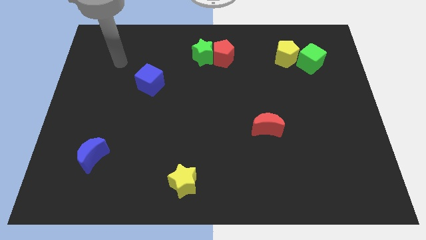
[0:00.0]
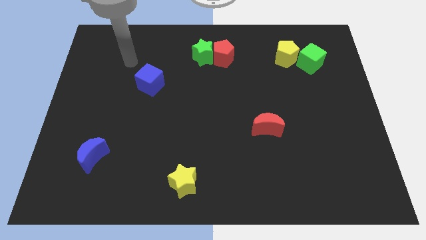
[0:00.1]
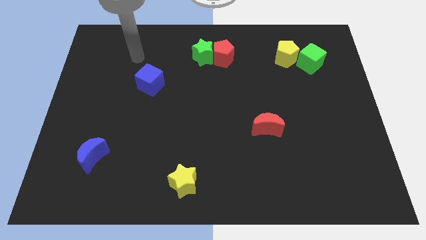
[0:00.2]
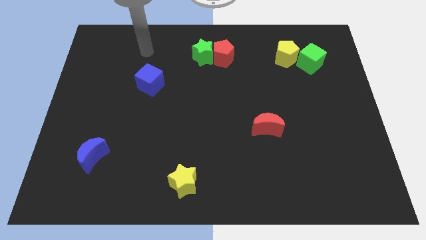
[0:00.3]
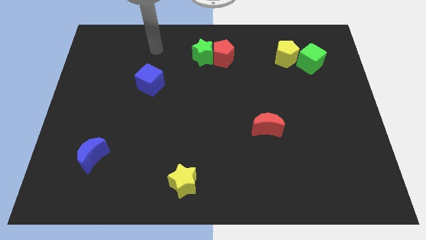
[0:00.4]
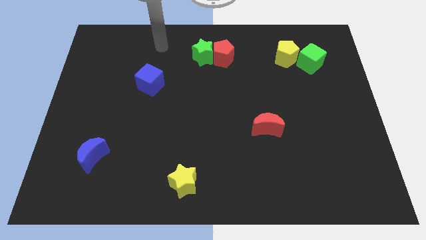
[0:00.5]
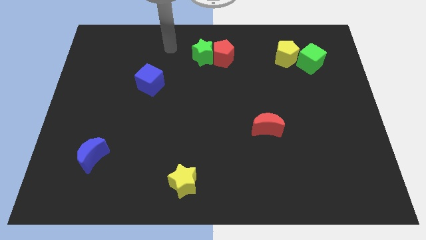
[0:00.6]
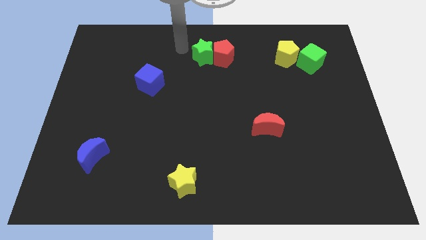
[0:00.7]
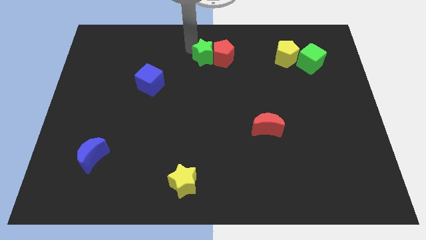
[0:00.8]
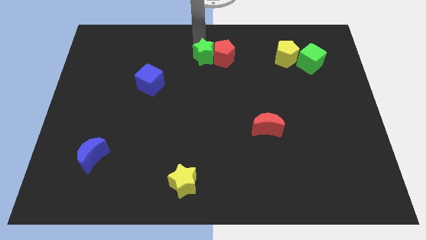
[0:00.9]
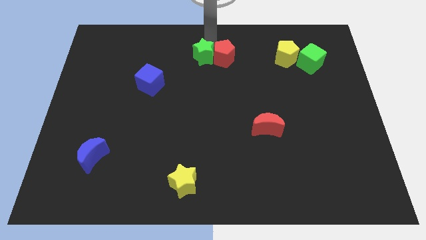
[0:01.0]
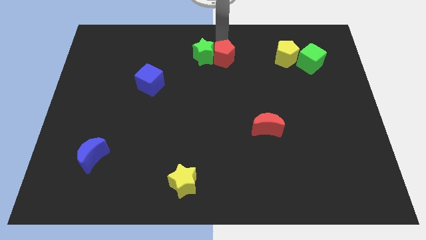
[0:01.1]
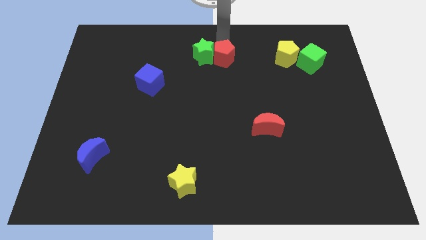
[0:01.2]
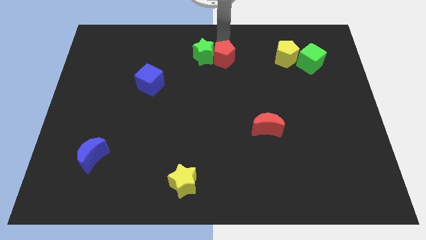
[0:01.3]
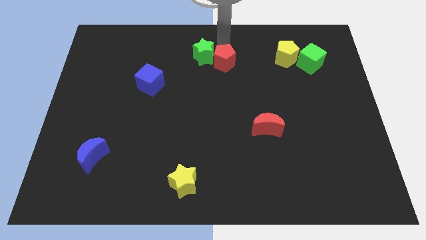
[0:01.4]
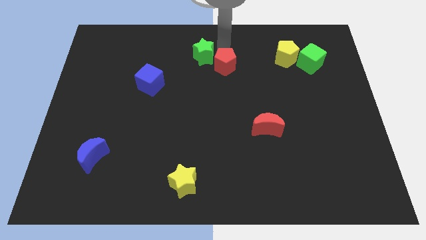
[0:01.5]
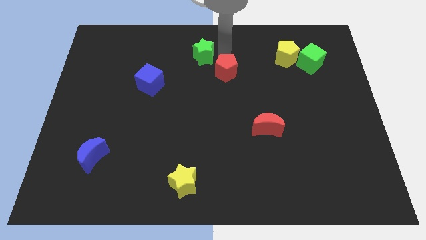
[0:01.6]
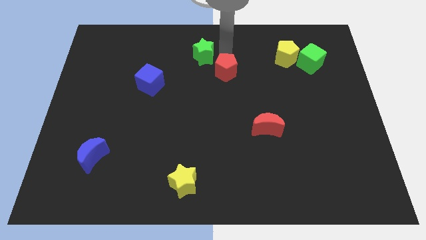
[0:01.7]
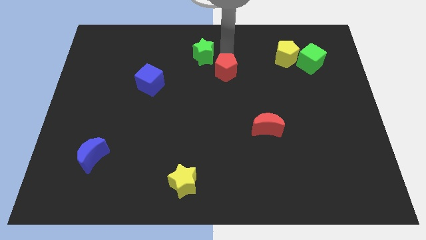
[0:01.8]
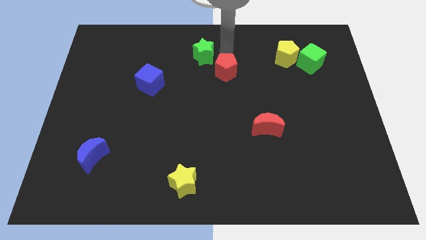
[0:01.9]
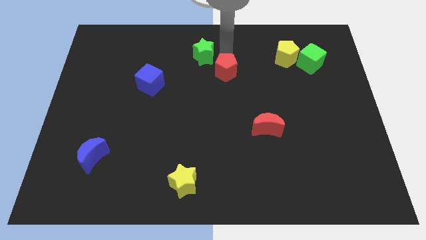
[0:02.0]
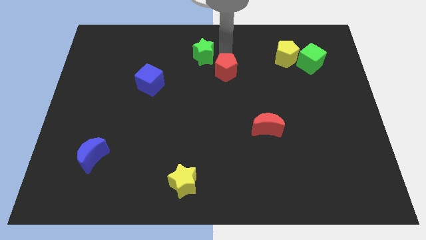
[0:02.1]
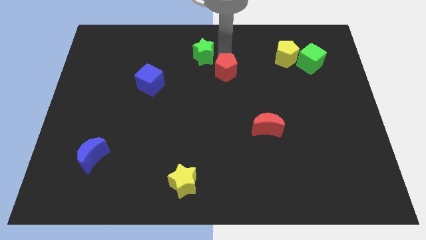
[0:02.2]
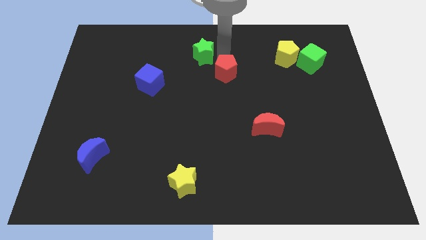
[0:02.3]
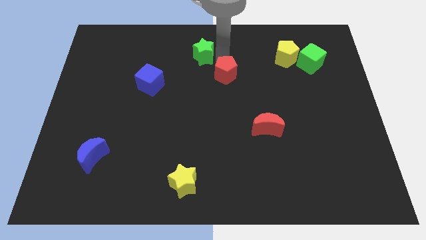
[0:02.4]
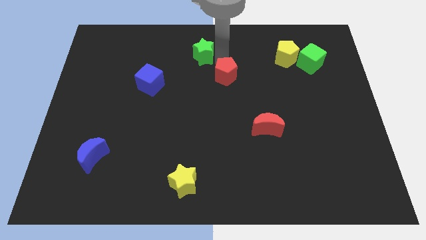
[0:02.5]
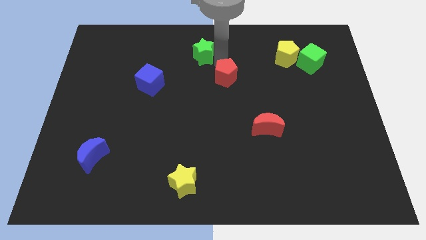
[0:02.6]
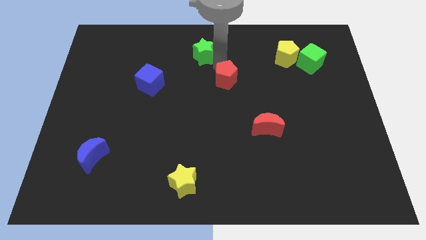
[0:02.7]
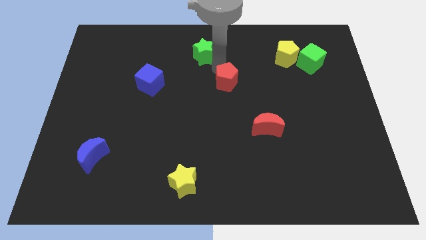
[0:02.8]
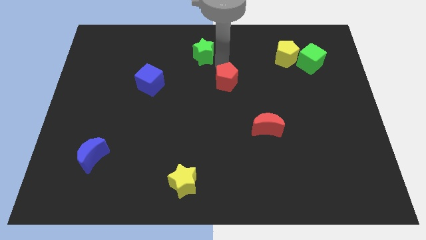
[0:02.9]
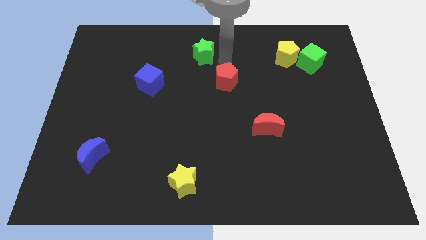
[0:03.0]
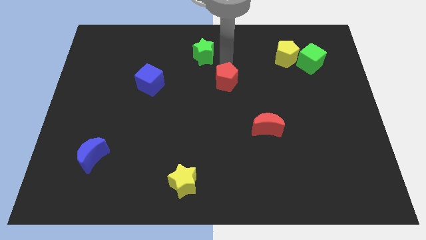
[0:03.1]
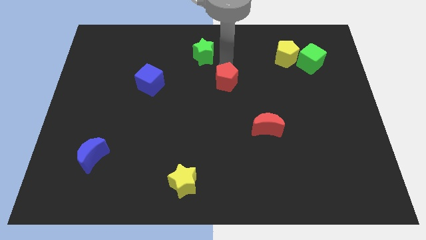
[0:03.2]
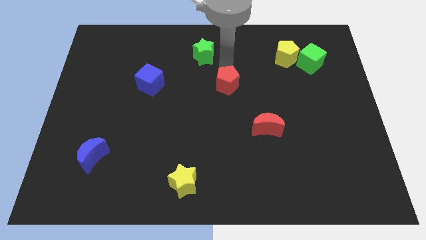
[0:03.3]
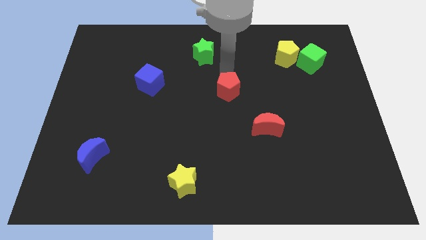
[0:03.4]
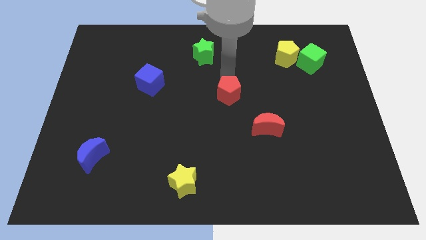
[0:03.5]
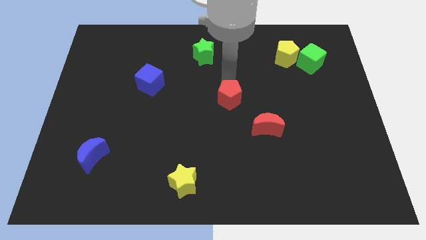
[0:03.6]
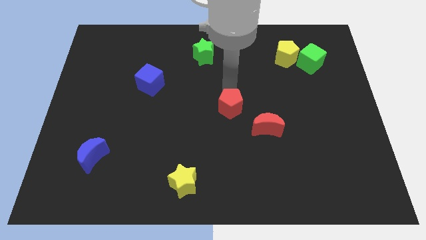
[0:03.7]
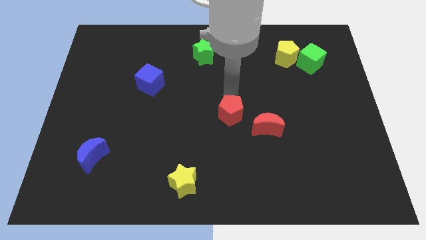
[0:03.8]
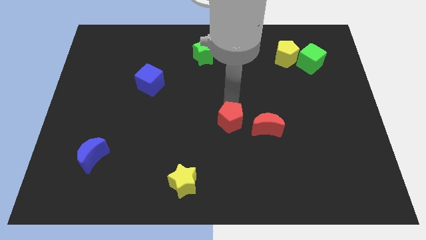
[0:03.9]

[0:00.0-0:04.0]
slide the red pentagon down

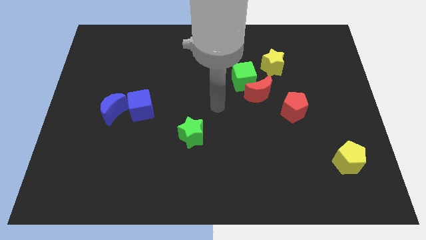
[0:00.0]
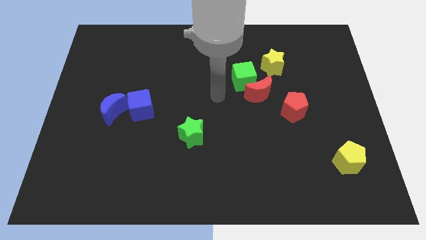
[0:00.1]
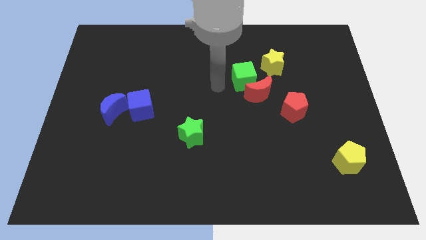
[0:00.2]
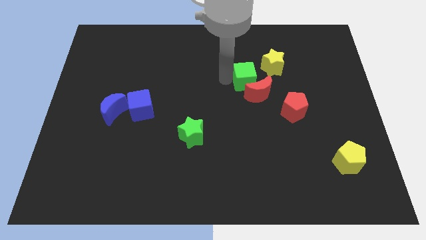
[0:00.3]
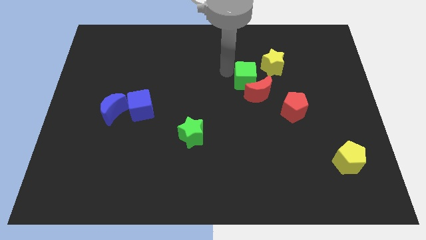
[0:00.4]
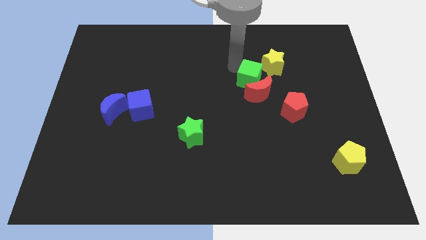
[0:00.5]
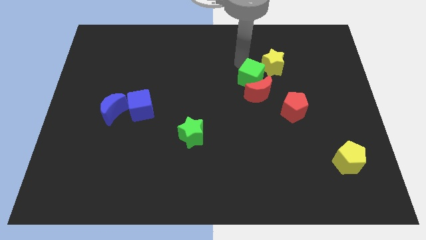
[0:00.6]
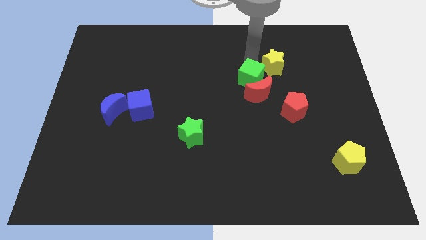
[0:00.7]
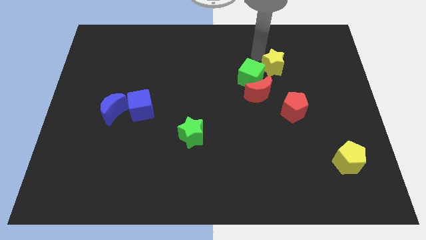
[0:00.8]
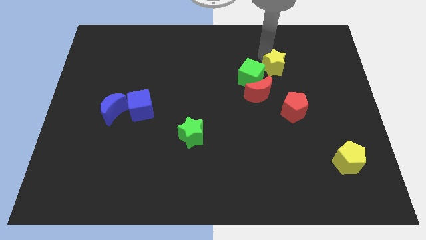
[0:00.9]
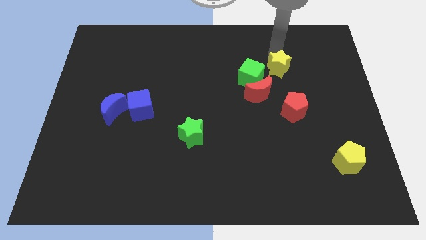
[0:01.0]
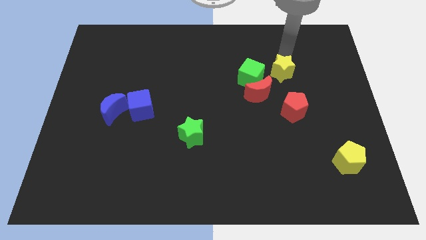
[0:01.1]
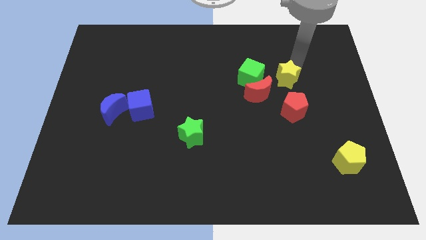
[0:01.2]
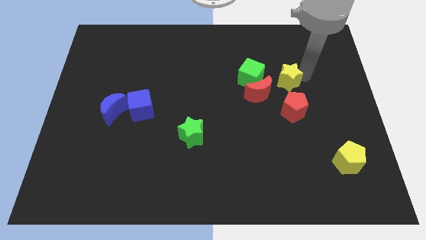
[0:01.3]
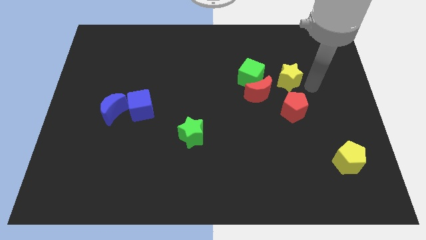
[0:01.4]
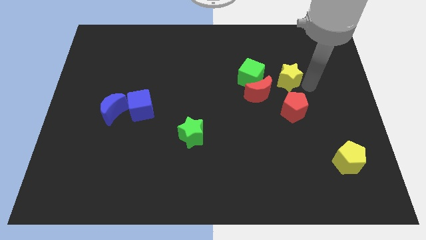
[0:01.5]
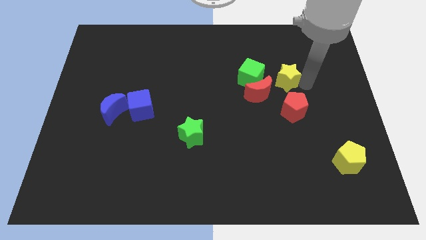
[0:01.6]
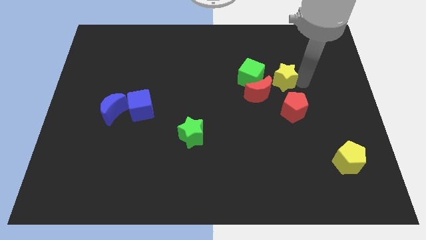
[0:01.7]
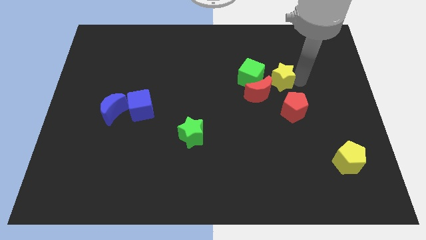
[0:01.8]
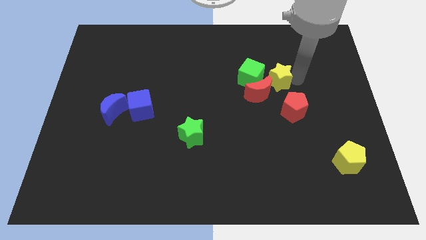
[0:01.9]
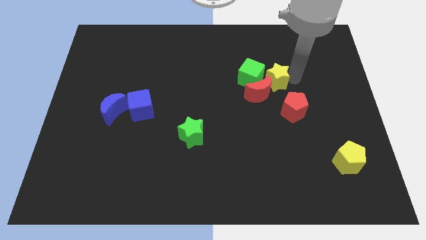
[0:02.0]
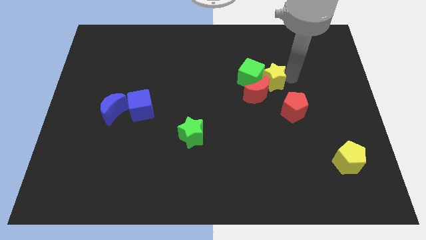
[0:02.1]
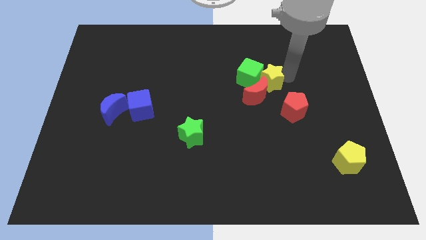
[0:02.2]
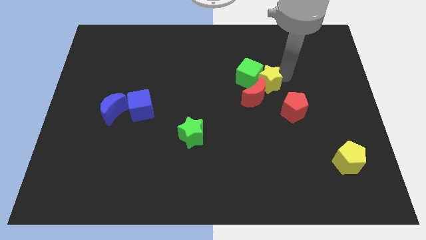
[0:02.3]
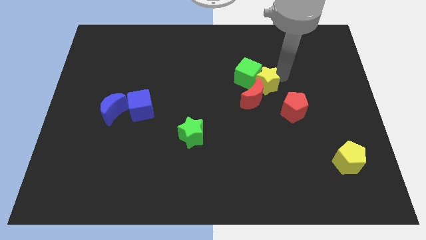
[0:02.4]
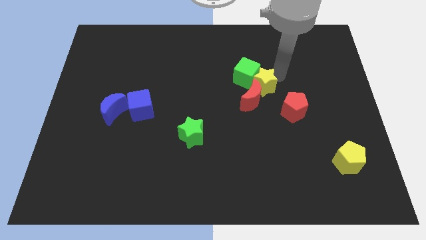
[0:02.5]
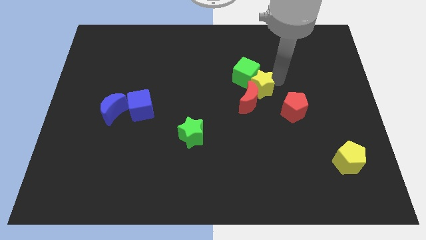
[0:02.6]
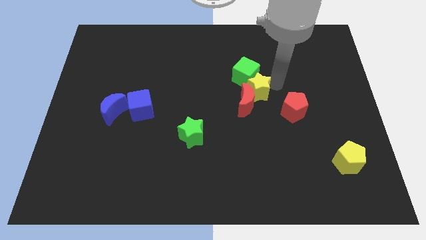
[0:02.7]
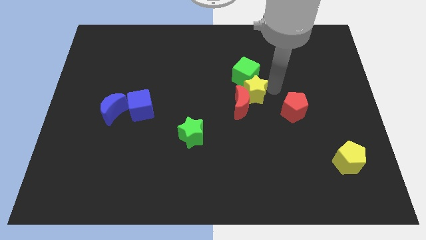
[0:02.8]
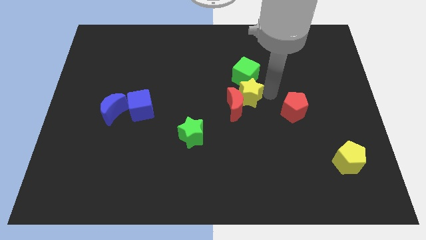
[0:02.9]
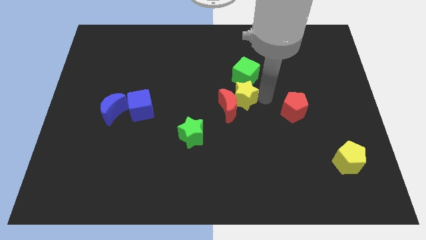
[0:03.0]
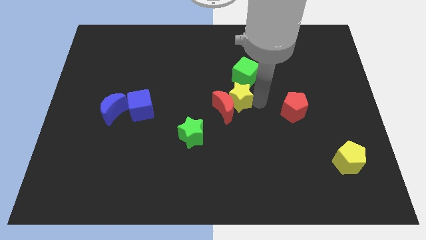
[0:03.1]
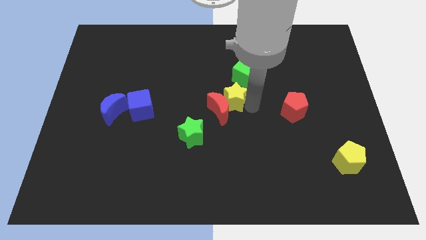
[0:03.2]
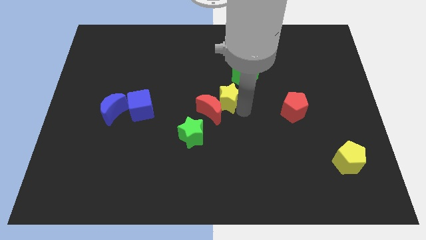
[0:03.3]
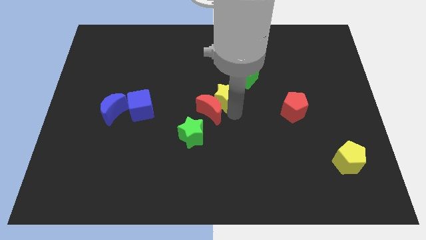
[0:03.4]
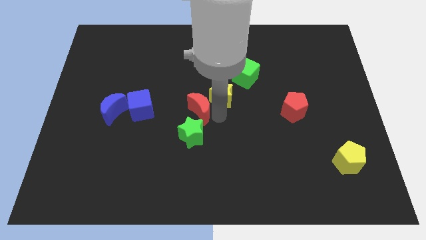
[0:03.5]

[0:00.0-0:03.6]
move the yellow star left a bit

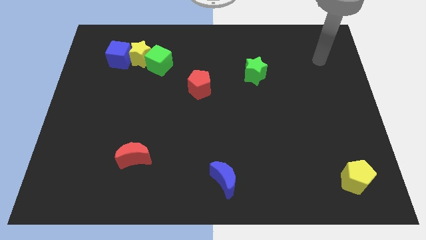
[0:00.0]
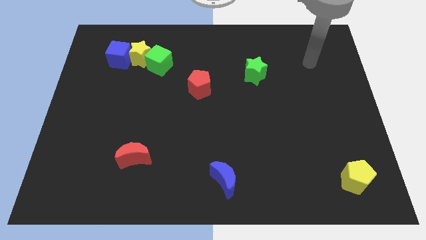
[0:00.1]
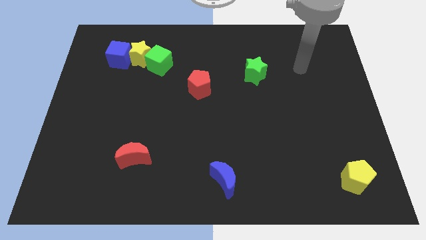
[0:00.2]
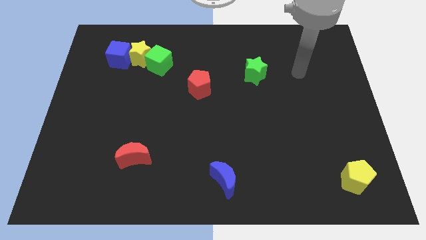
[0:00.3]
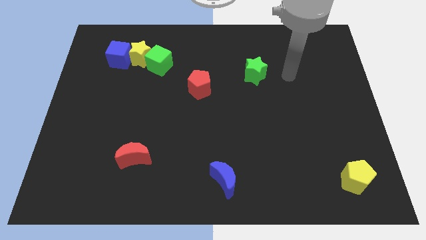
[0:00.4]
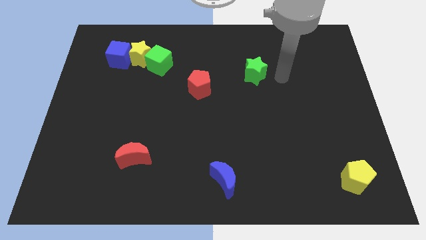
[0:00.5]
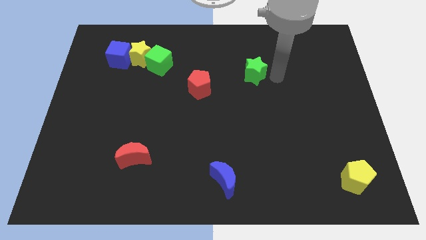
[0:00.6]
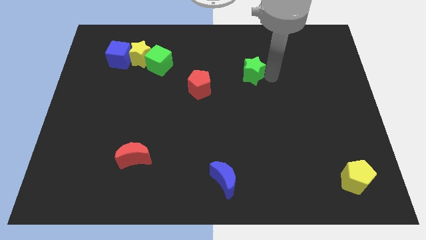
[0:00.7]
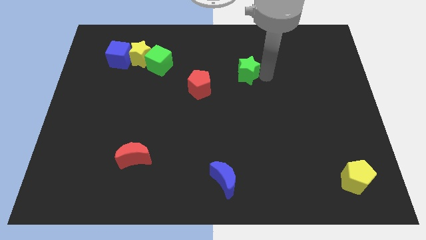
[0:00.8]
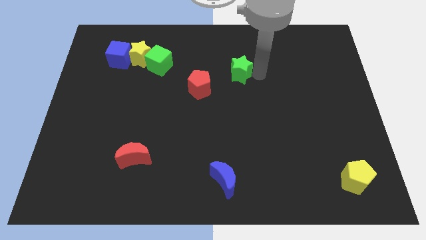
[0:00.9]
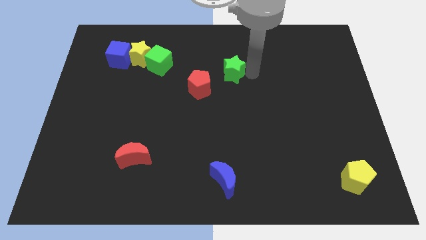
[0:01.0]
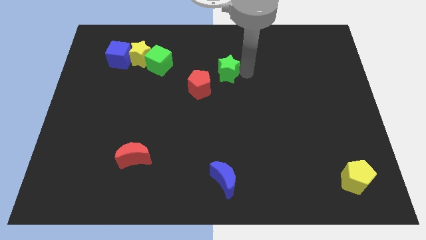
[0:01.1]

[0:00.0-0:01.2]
push the green star a bit left
